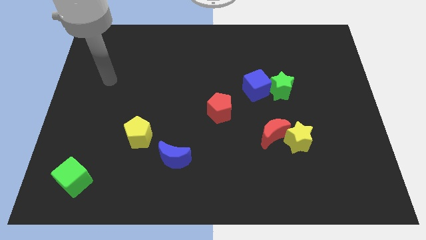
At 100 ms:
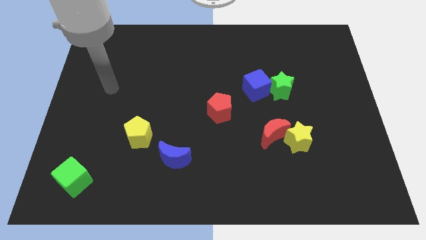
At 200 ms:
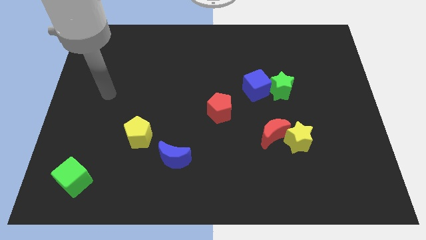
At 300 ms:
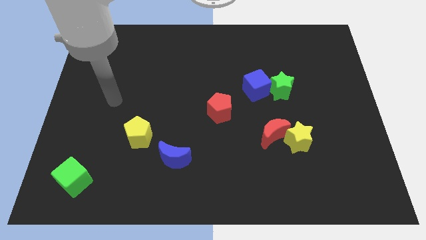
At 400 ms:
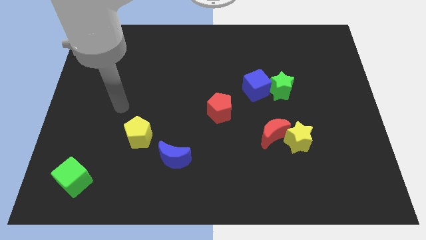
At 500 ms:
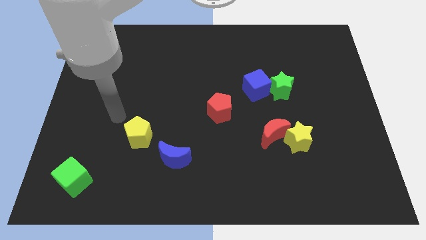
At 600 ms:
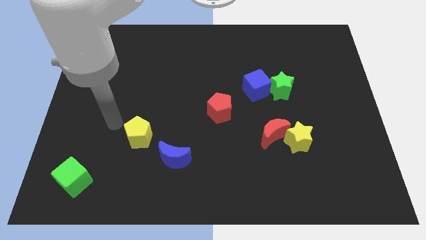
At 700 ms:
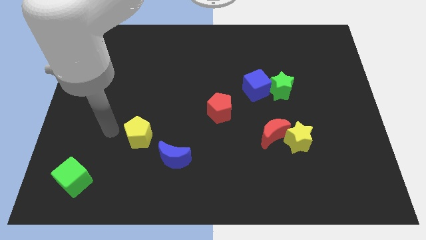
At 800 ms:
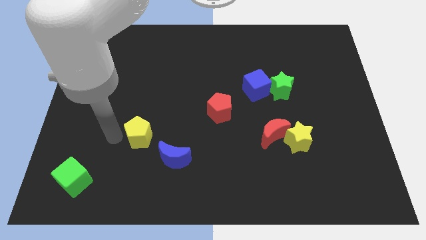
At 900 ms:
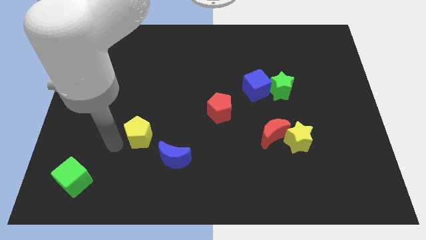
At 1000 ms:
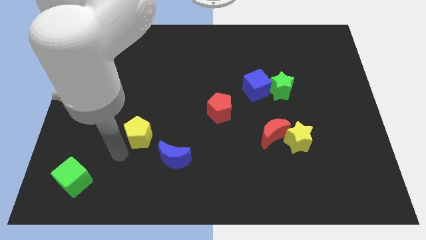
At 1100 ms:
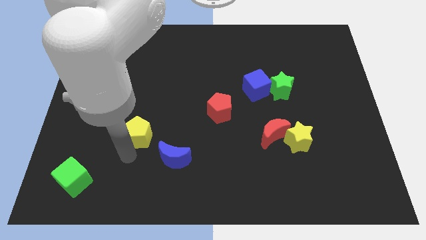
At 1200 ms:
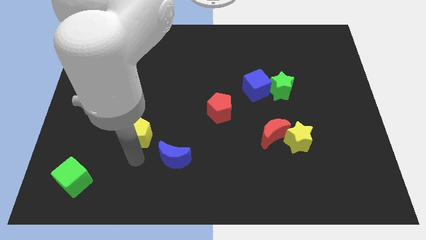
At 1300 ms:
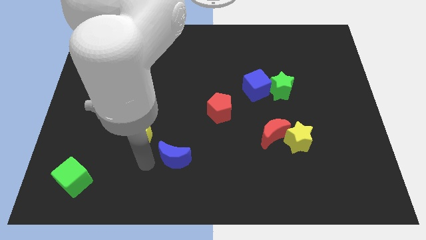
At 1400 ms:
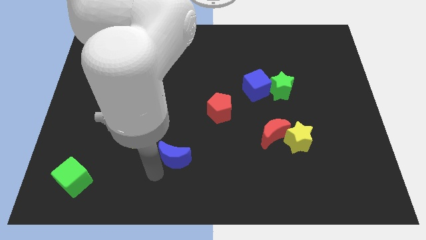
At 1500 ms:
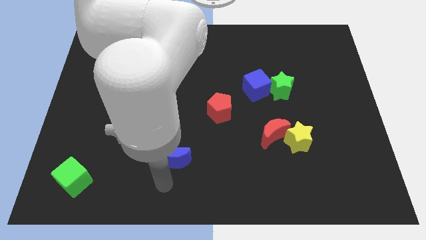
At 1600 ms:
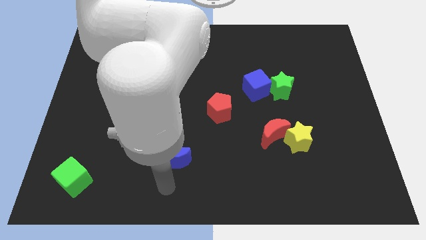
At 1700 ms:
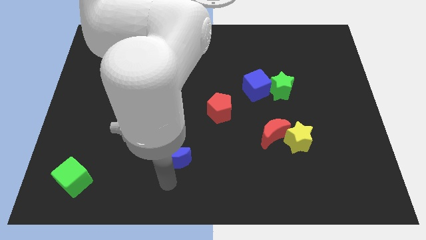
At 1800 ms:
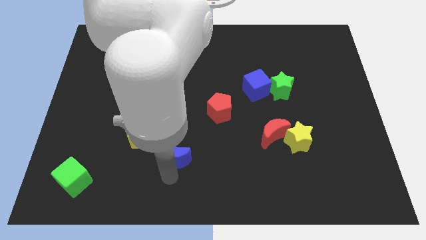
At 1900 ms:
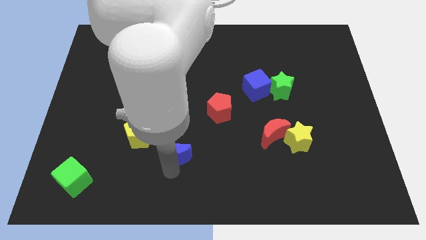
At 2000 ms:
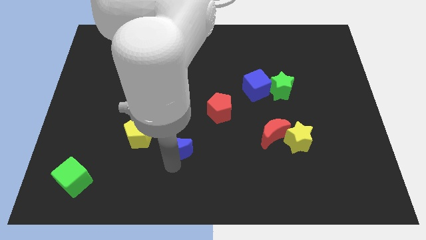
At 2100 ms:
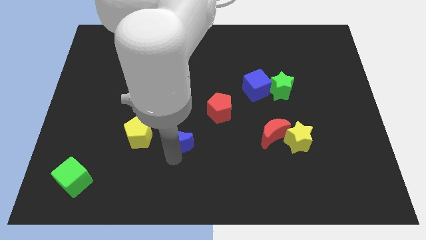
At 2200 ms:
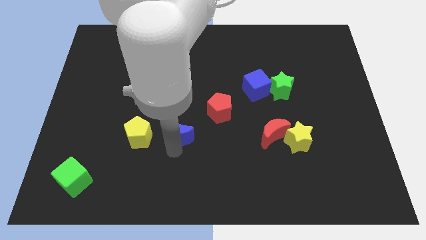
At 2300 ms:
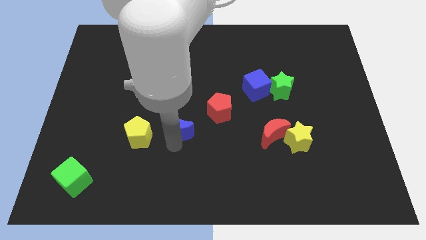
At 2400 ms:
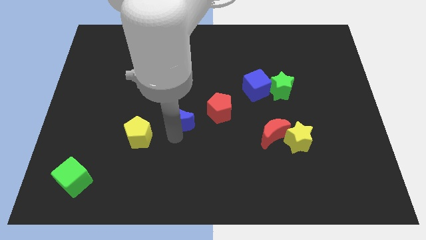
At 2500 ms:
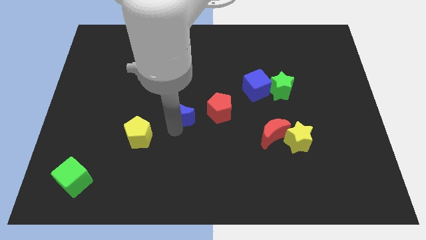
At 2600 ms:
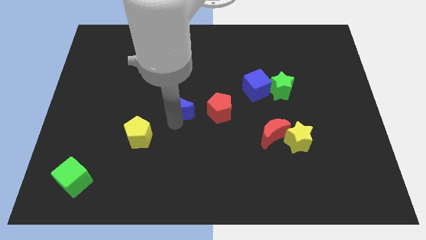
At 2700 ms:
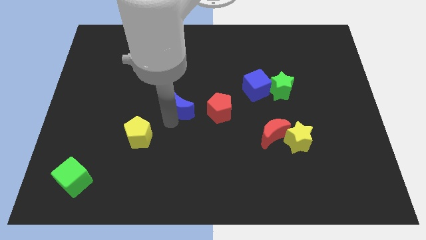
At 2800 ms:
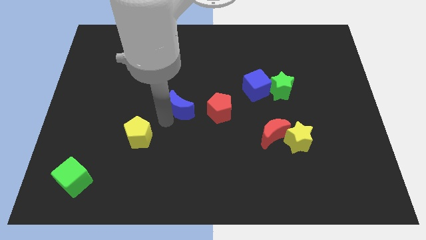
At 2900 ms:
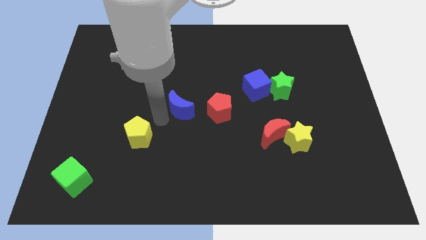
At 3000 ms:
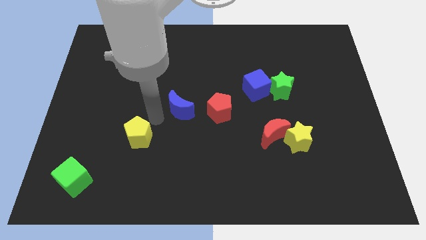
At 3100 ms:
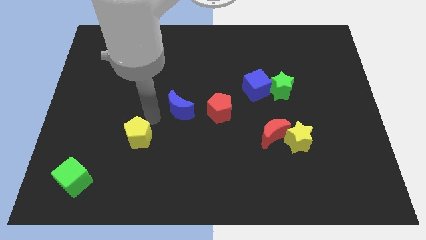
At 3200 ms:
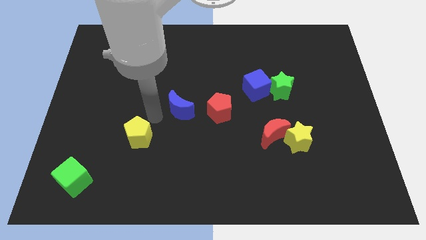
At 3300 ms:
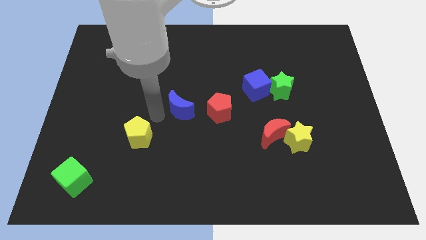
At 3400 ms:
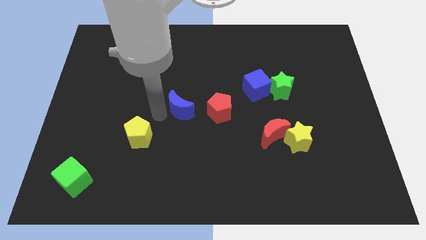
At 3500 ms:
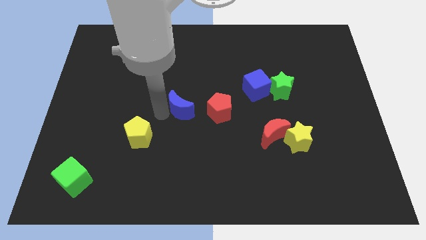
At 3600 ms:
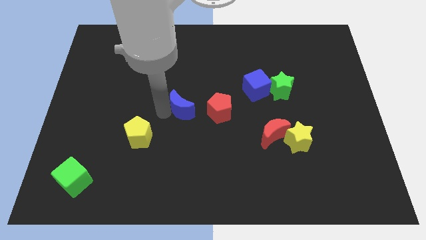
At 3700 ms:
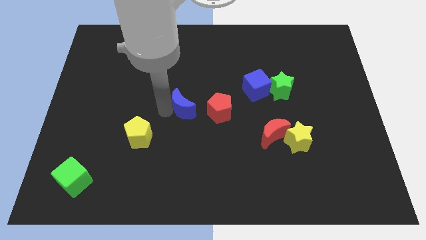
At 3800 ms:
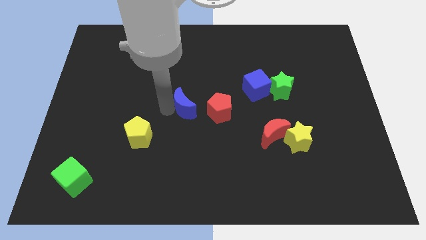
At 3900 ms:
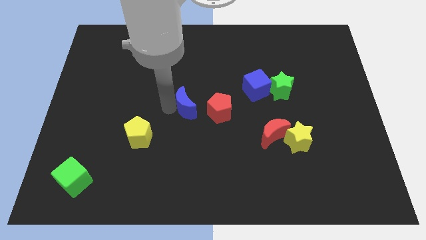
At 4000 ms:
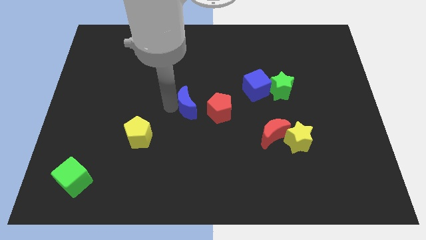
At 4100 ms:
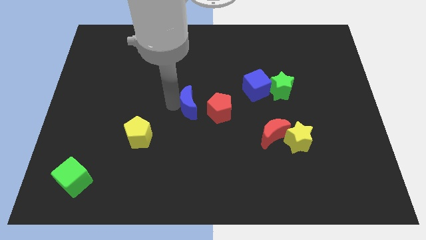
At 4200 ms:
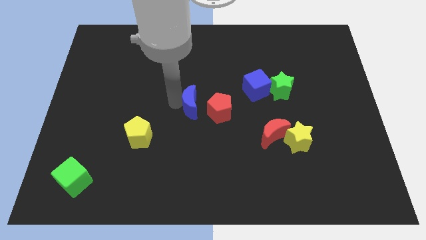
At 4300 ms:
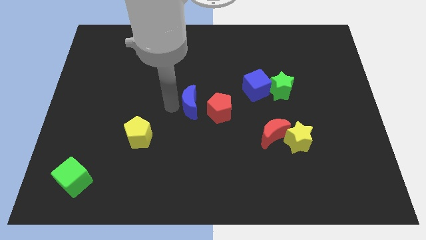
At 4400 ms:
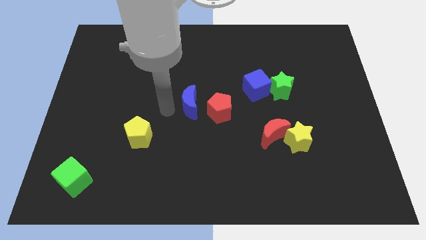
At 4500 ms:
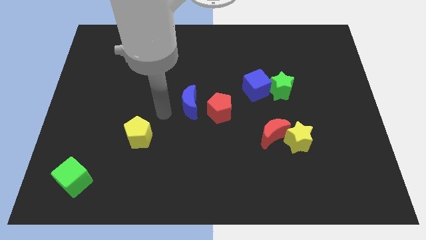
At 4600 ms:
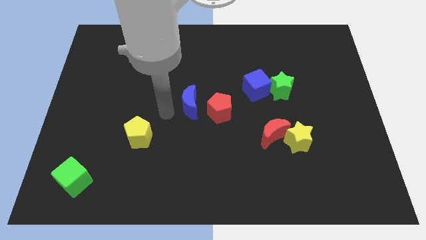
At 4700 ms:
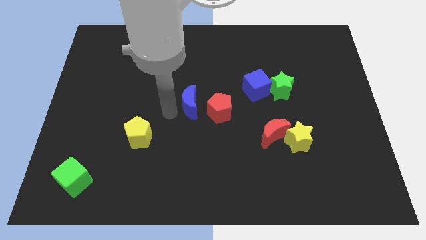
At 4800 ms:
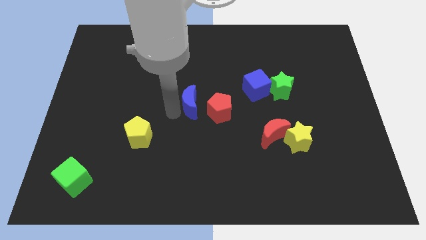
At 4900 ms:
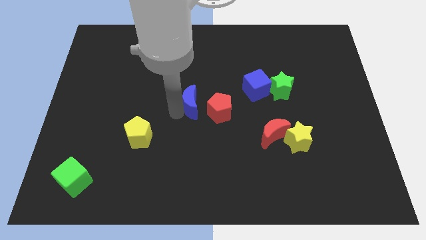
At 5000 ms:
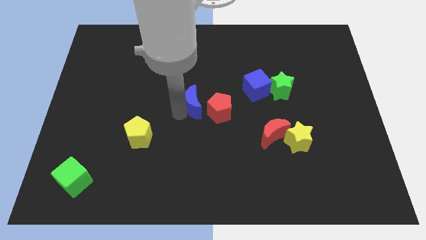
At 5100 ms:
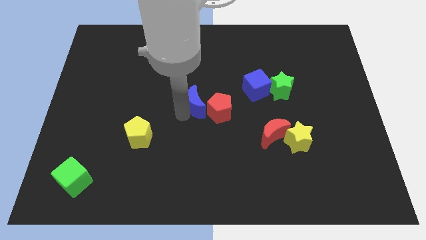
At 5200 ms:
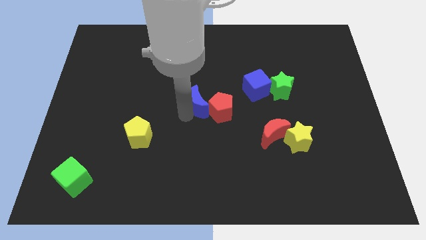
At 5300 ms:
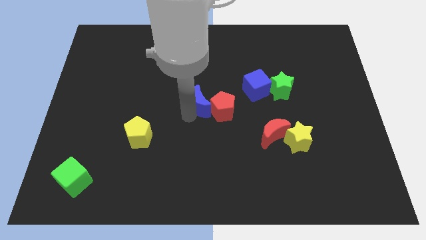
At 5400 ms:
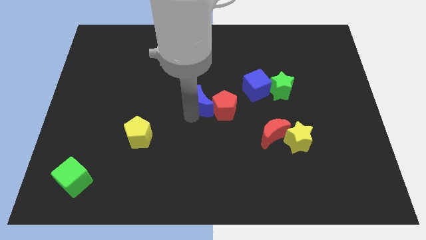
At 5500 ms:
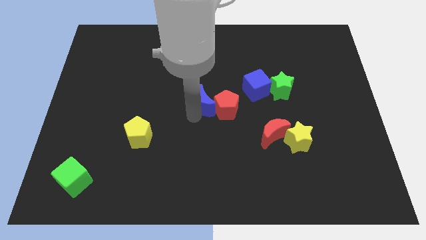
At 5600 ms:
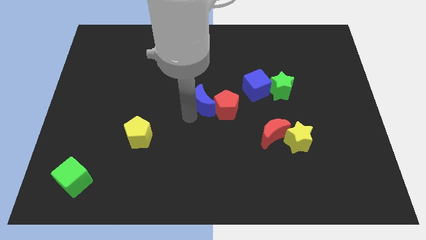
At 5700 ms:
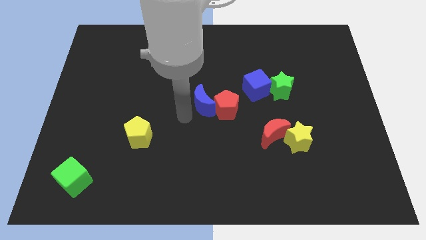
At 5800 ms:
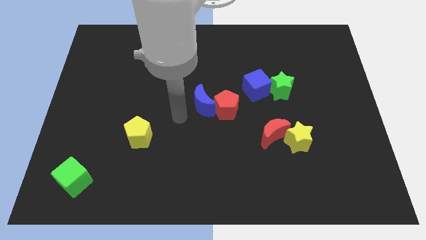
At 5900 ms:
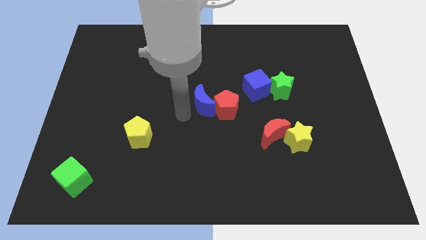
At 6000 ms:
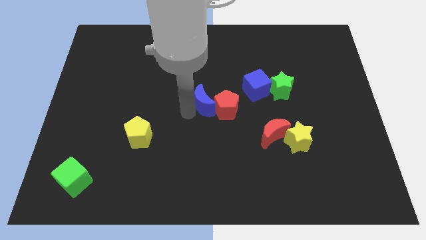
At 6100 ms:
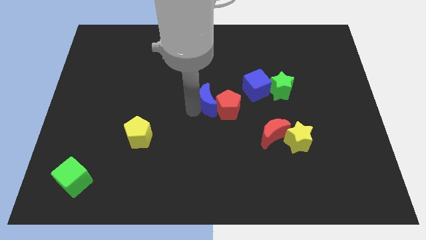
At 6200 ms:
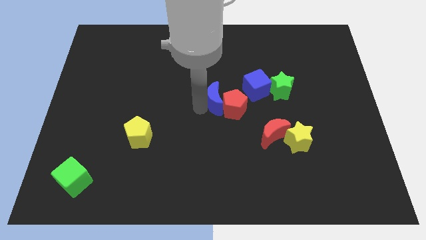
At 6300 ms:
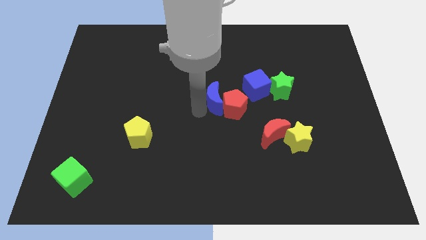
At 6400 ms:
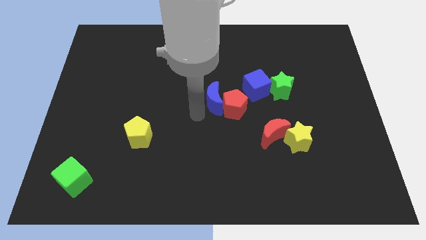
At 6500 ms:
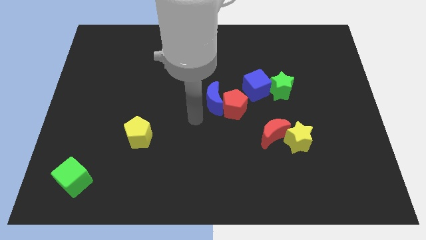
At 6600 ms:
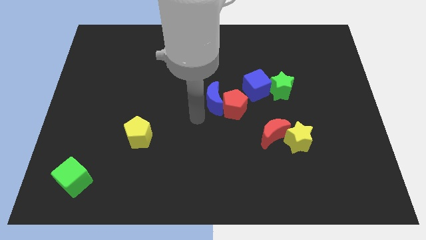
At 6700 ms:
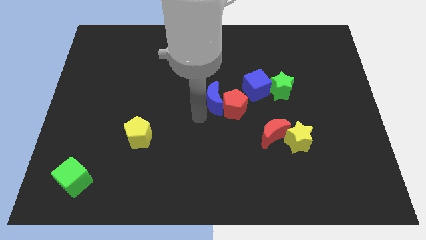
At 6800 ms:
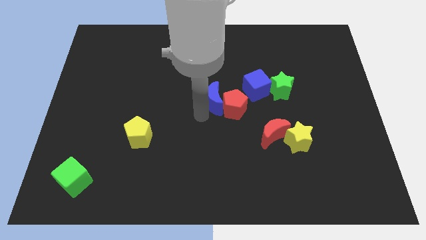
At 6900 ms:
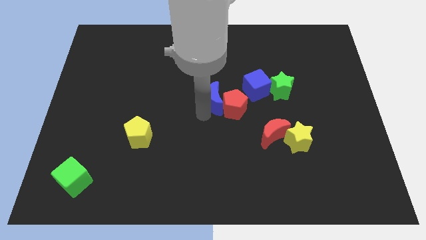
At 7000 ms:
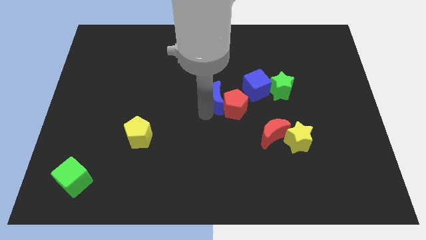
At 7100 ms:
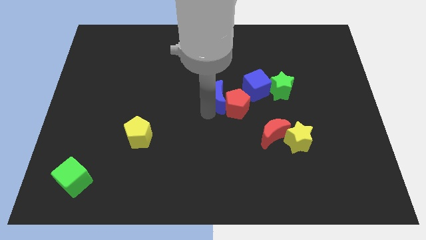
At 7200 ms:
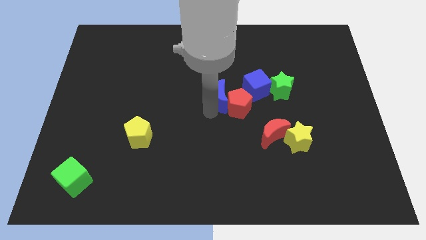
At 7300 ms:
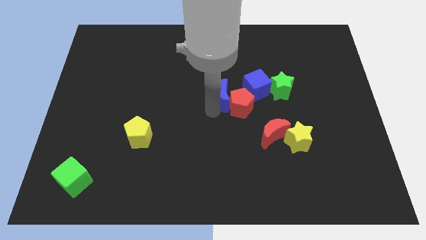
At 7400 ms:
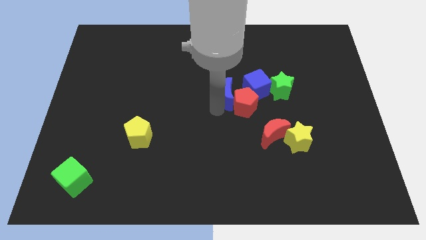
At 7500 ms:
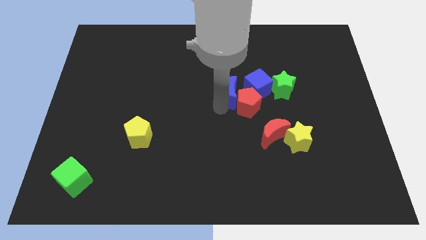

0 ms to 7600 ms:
push the blue moon upwards and then right

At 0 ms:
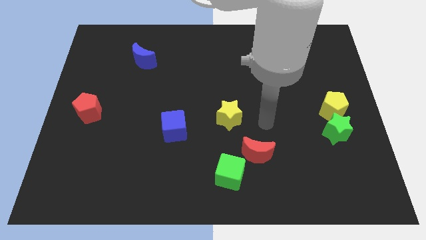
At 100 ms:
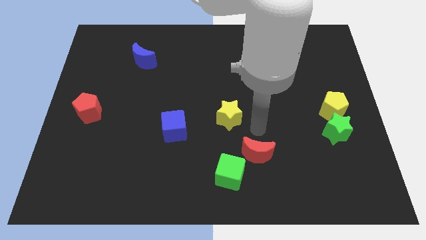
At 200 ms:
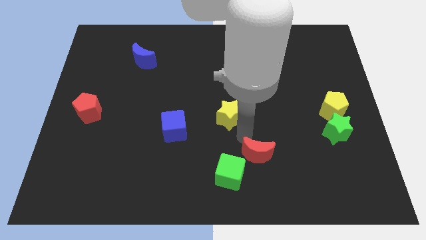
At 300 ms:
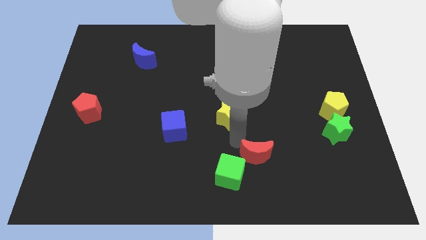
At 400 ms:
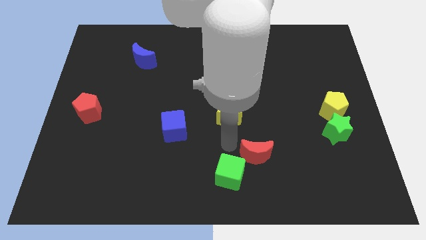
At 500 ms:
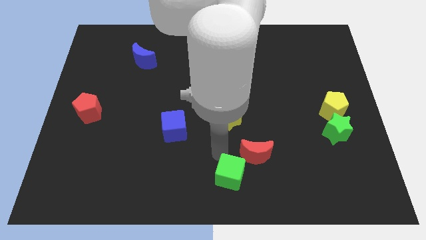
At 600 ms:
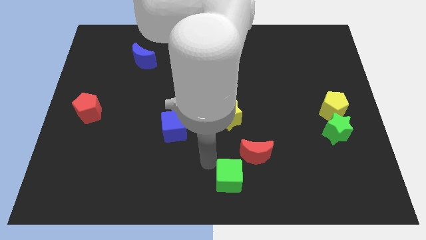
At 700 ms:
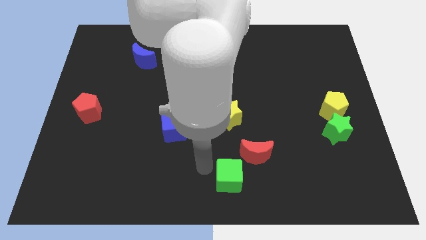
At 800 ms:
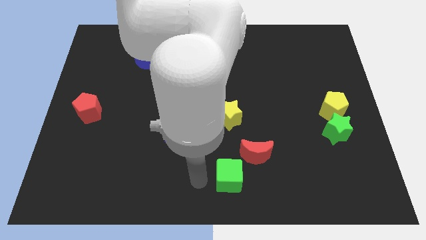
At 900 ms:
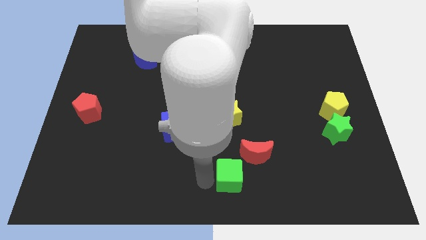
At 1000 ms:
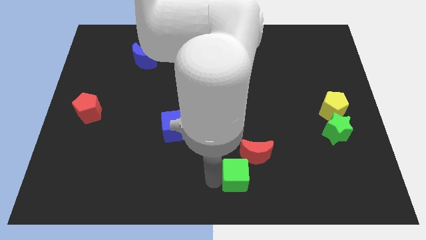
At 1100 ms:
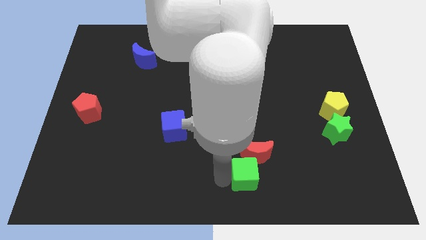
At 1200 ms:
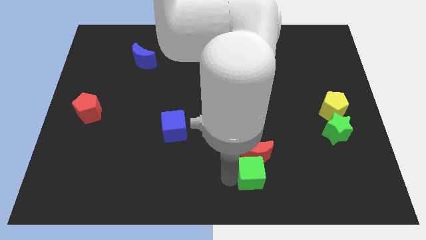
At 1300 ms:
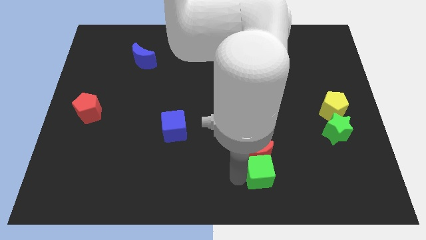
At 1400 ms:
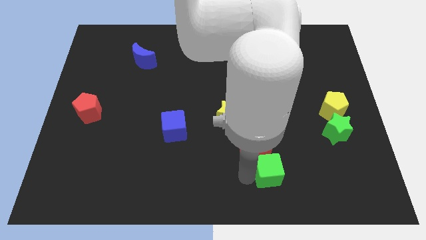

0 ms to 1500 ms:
slide the green cube somewhat to the right
